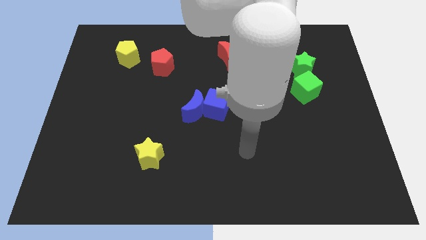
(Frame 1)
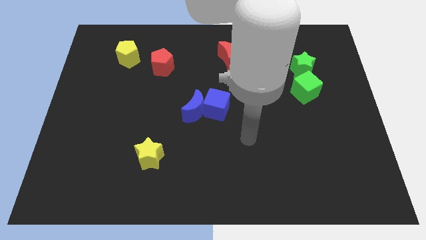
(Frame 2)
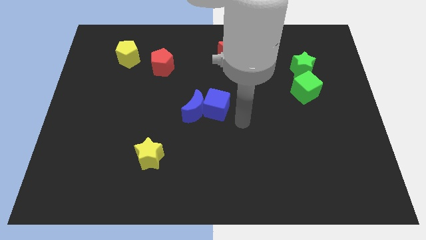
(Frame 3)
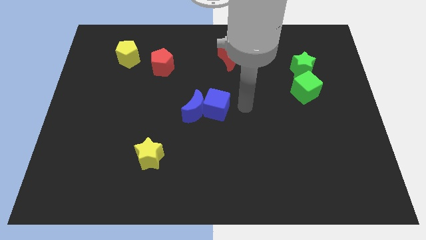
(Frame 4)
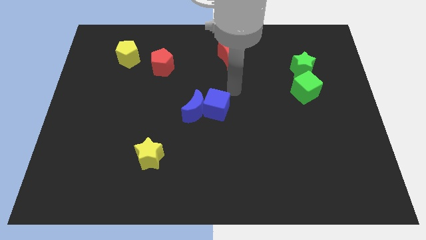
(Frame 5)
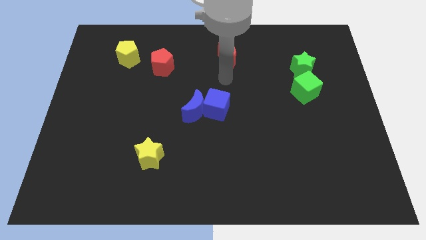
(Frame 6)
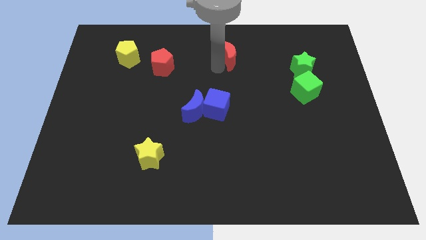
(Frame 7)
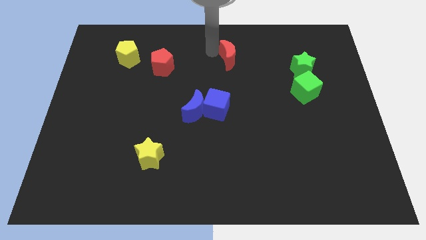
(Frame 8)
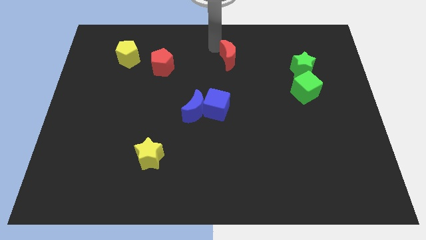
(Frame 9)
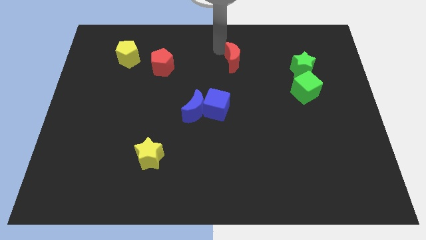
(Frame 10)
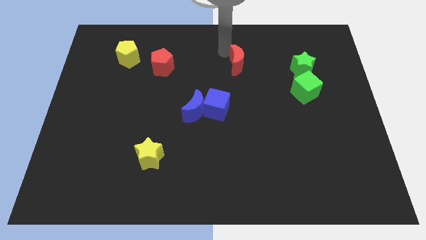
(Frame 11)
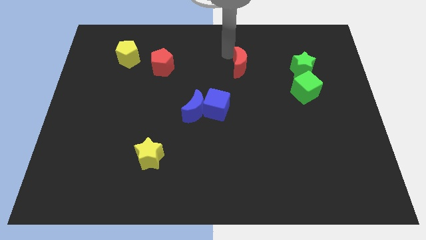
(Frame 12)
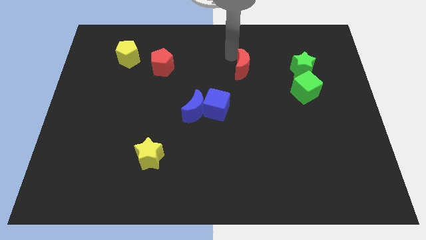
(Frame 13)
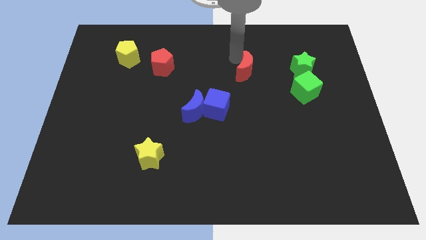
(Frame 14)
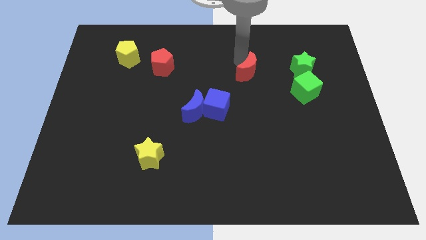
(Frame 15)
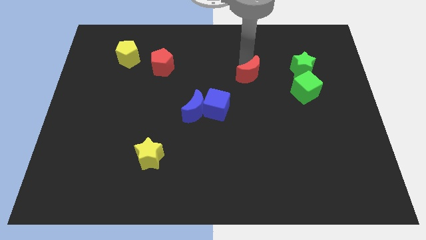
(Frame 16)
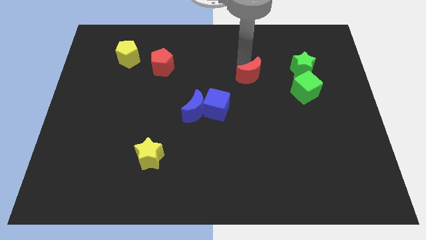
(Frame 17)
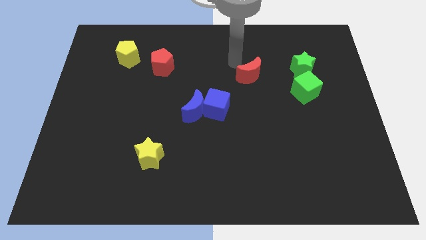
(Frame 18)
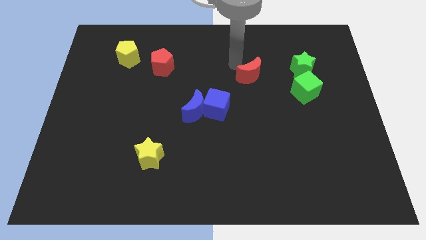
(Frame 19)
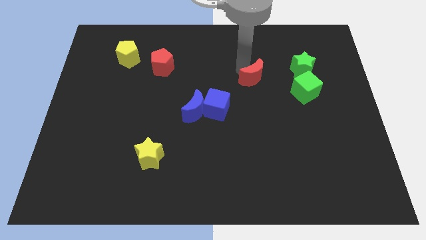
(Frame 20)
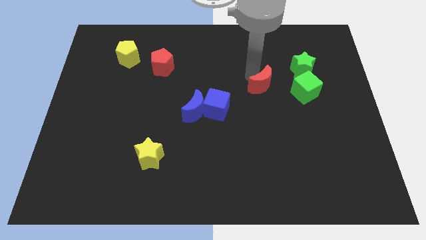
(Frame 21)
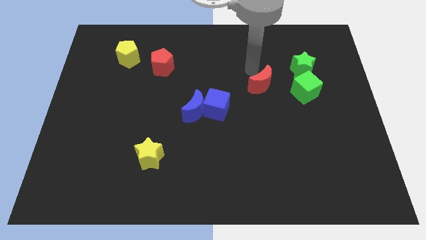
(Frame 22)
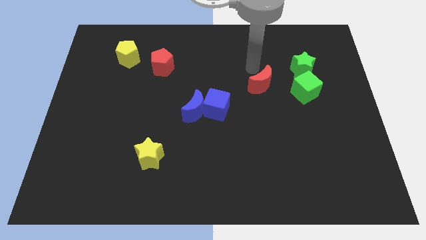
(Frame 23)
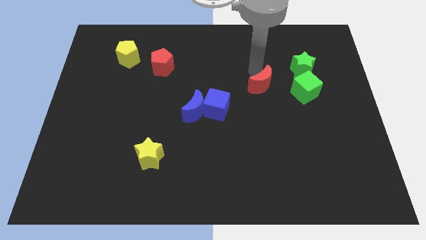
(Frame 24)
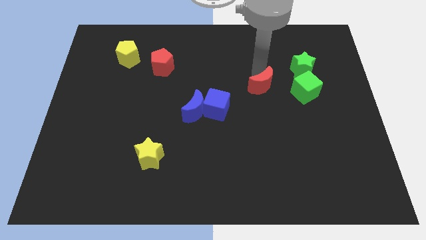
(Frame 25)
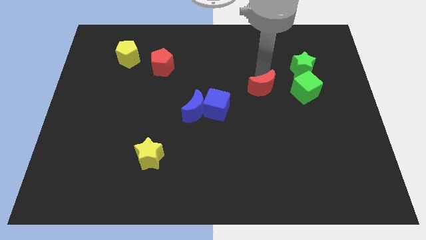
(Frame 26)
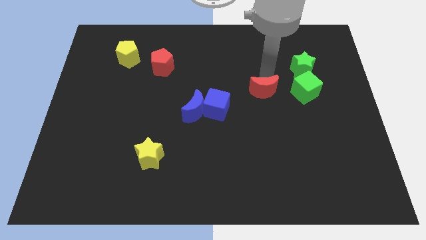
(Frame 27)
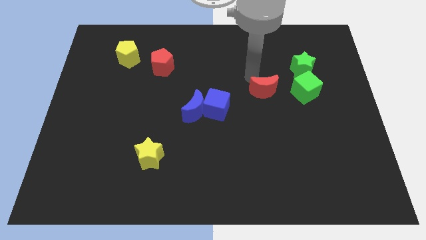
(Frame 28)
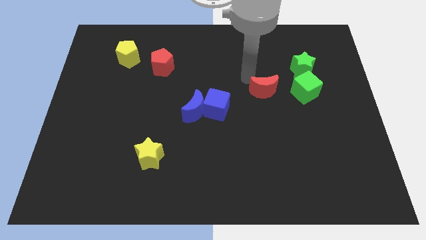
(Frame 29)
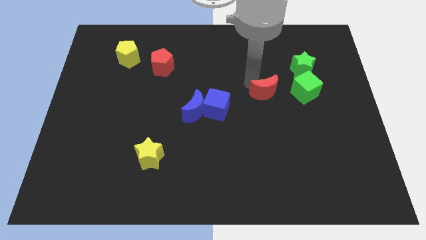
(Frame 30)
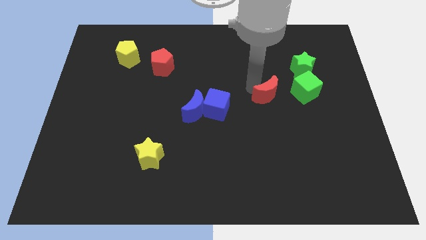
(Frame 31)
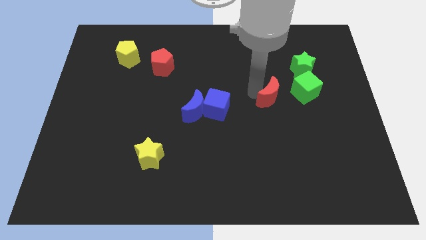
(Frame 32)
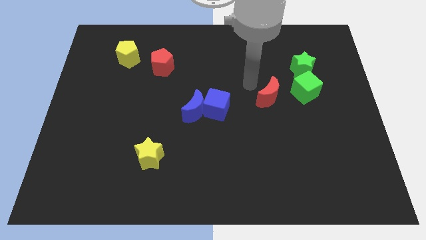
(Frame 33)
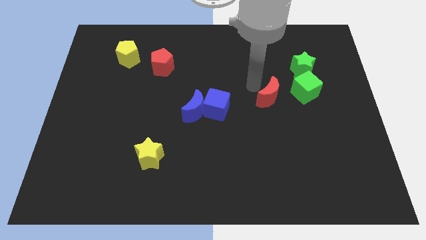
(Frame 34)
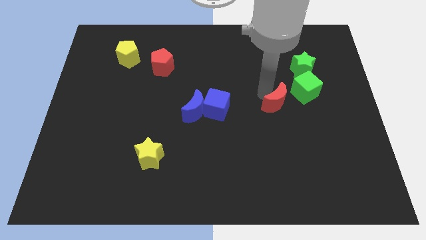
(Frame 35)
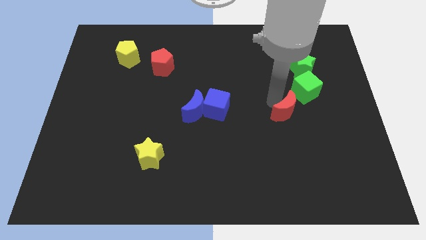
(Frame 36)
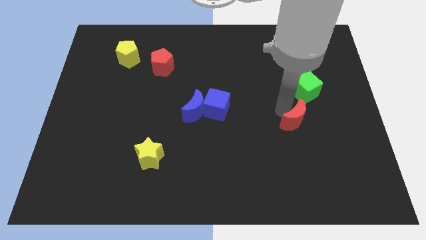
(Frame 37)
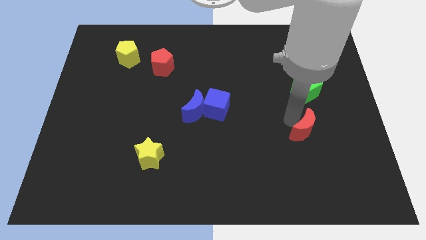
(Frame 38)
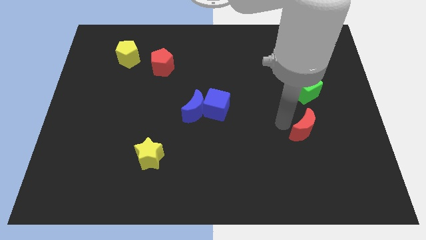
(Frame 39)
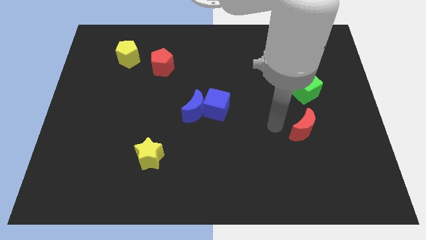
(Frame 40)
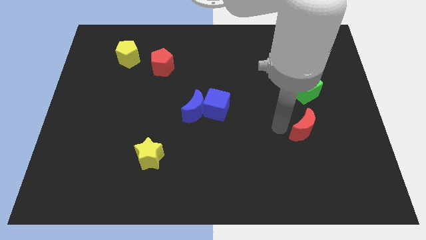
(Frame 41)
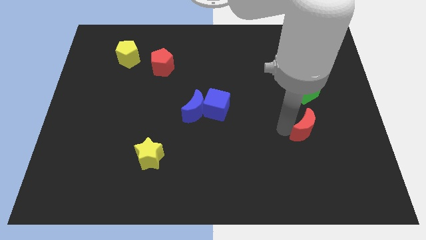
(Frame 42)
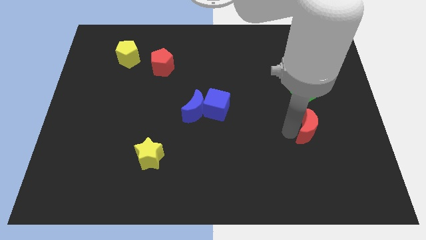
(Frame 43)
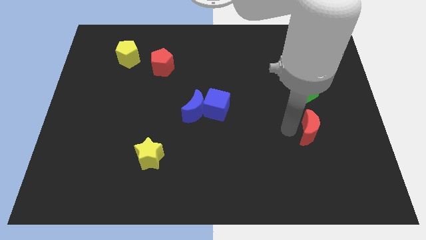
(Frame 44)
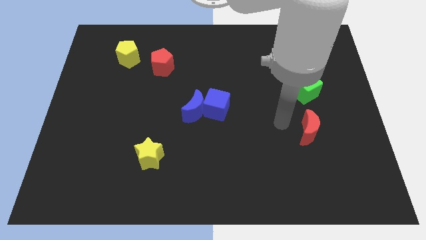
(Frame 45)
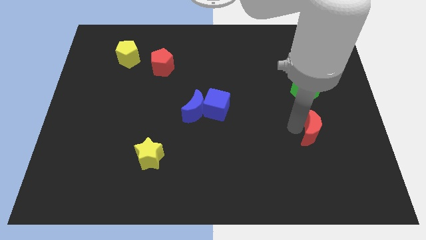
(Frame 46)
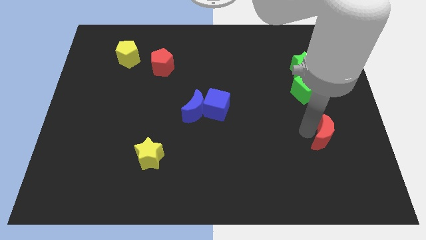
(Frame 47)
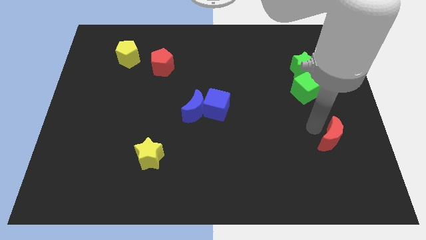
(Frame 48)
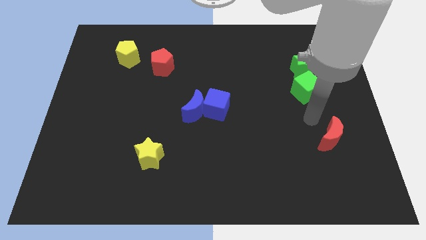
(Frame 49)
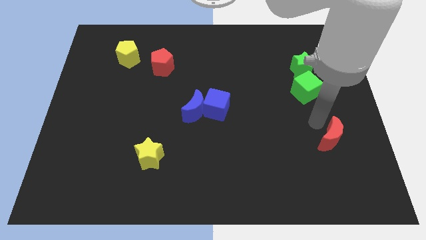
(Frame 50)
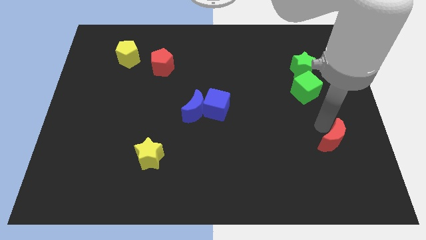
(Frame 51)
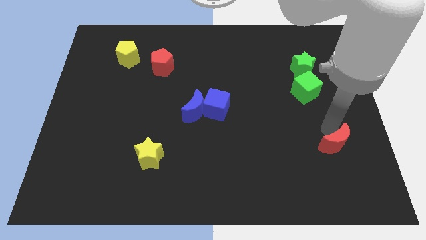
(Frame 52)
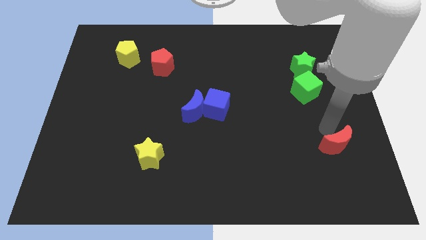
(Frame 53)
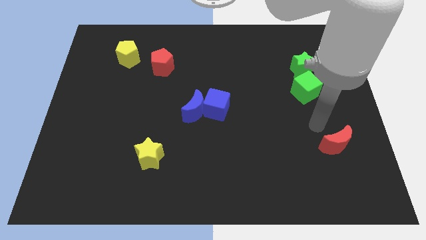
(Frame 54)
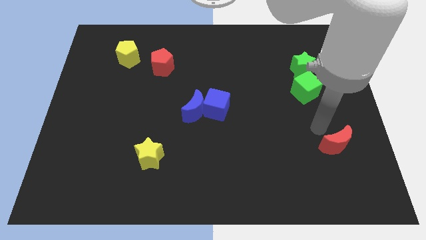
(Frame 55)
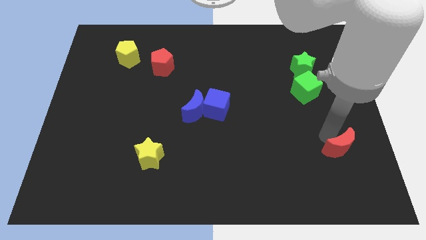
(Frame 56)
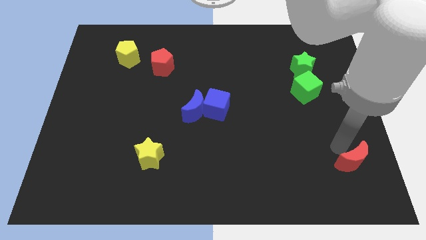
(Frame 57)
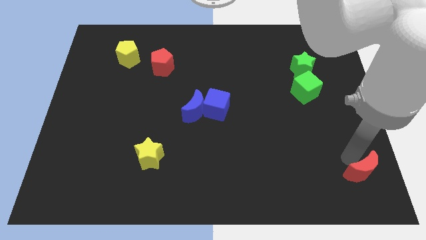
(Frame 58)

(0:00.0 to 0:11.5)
put the red moon to the bottom right of the board

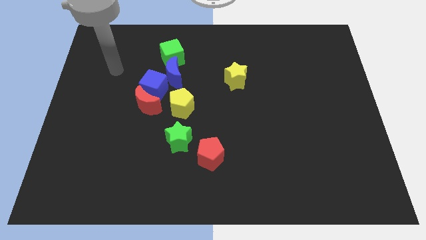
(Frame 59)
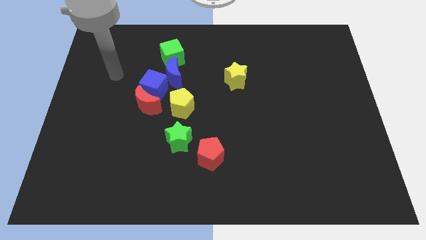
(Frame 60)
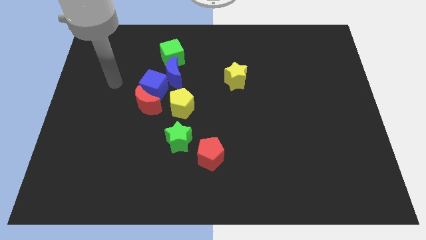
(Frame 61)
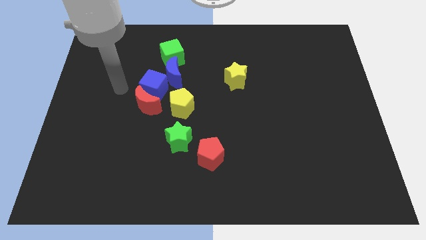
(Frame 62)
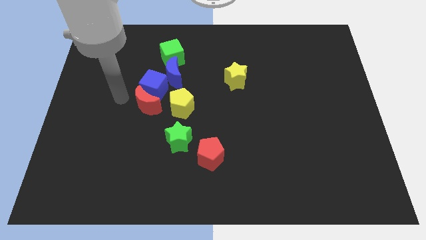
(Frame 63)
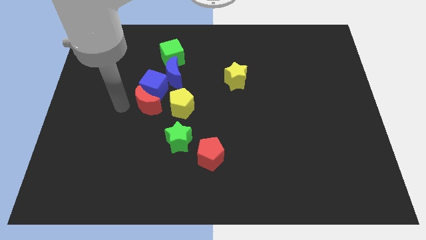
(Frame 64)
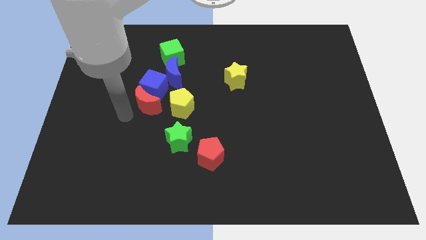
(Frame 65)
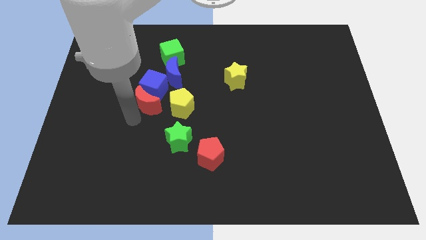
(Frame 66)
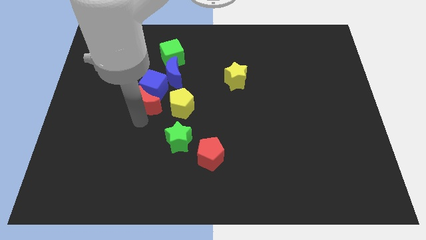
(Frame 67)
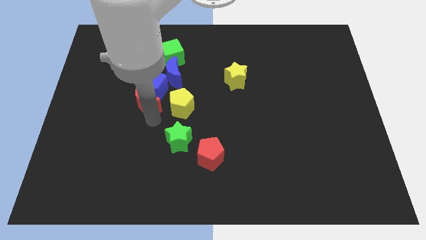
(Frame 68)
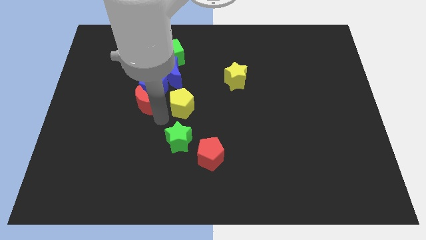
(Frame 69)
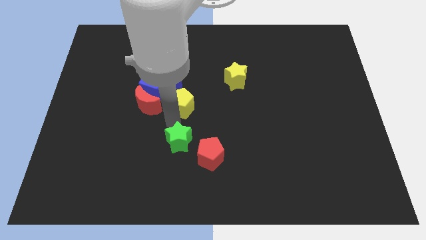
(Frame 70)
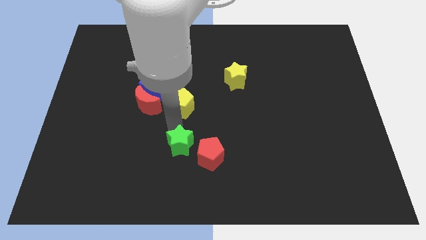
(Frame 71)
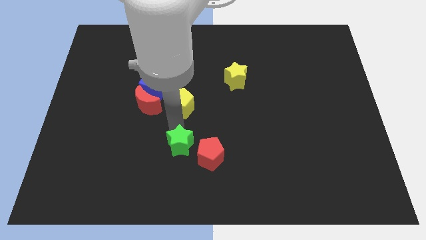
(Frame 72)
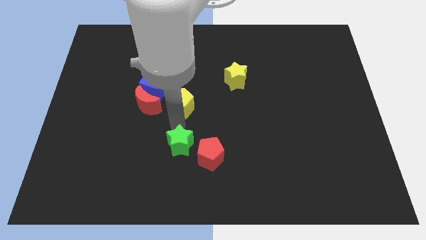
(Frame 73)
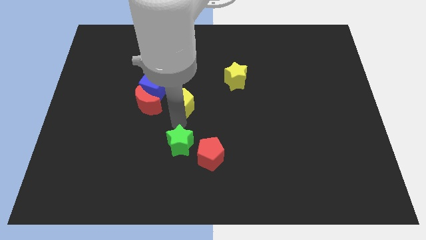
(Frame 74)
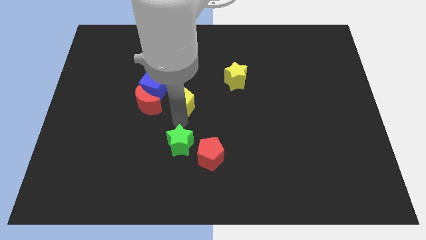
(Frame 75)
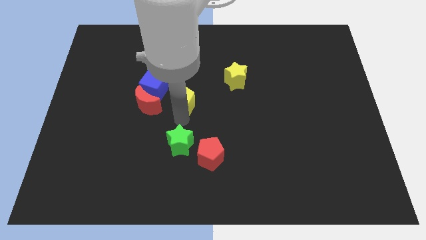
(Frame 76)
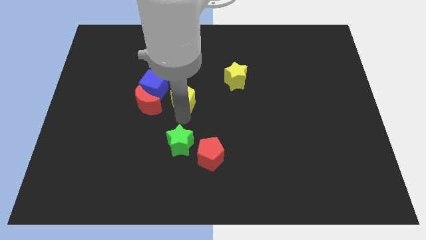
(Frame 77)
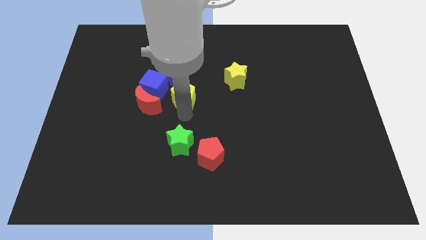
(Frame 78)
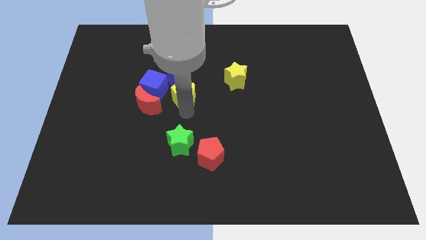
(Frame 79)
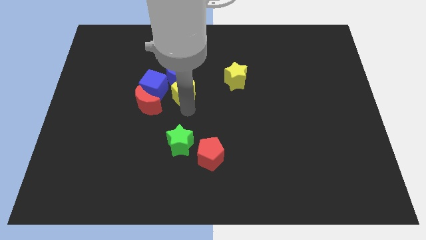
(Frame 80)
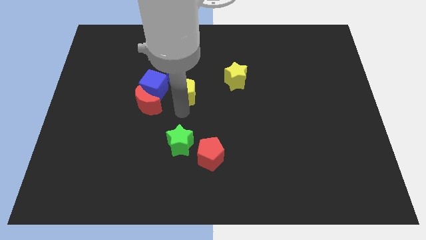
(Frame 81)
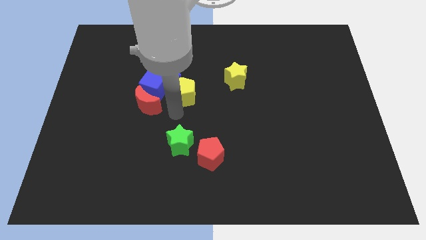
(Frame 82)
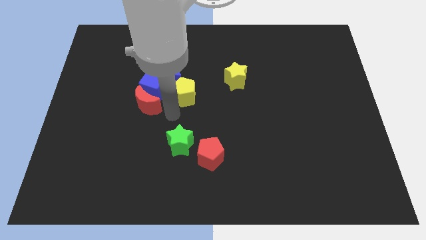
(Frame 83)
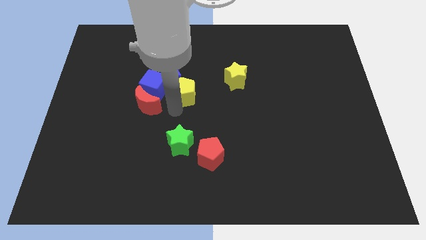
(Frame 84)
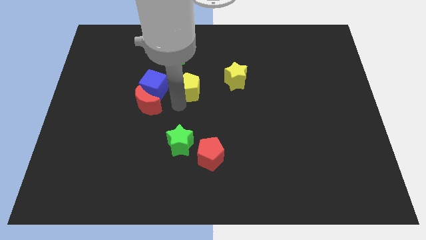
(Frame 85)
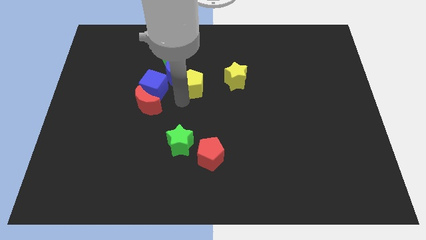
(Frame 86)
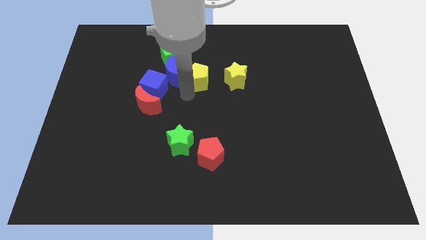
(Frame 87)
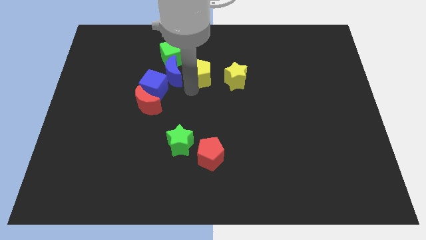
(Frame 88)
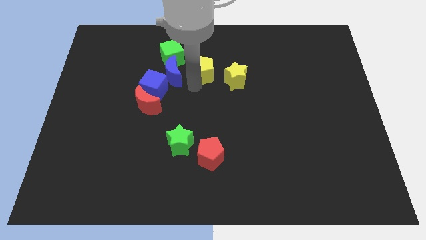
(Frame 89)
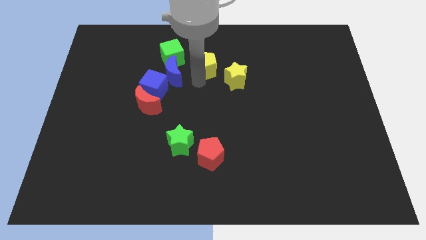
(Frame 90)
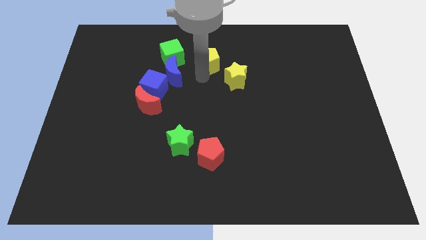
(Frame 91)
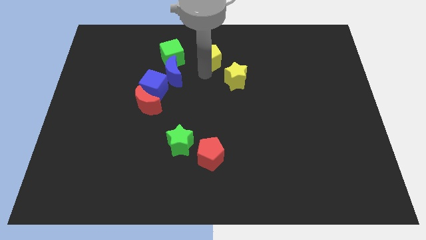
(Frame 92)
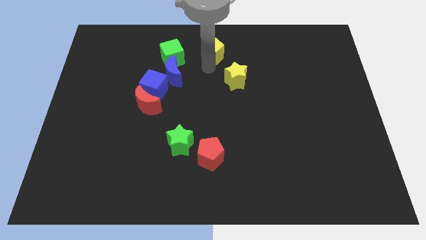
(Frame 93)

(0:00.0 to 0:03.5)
put the yellow pentagon to the top
